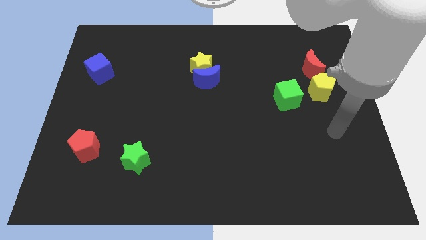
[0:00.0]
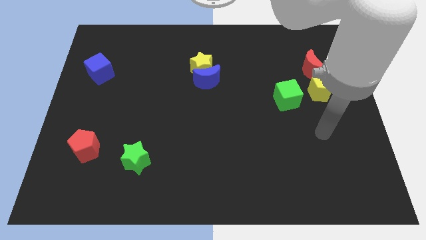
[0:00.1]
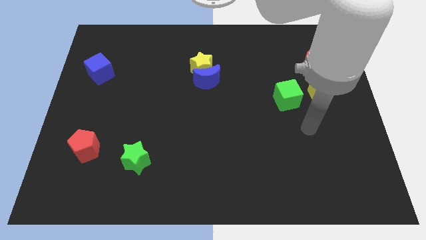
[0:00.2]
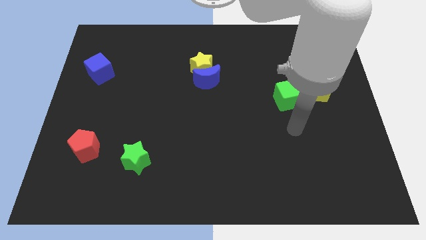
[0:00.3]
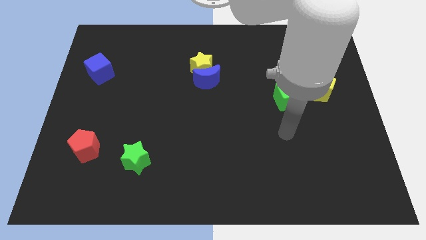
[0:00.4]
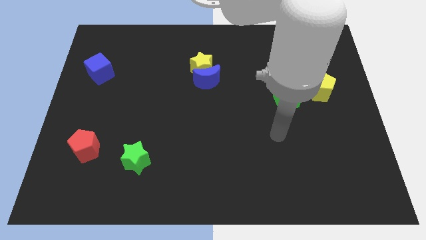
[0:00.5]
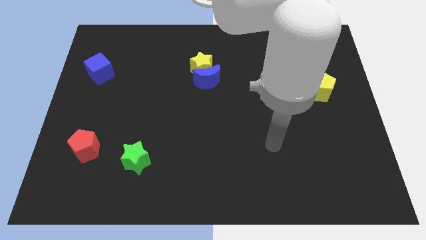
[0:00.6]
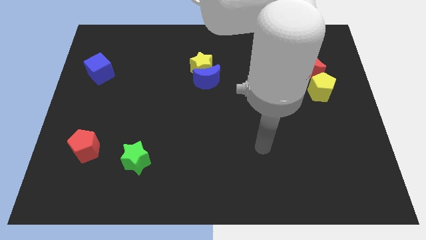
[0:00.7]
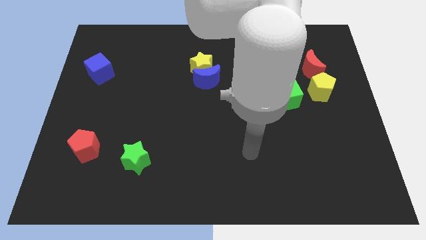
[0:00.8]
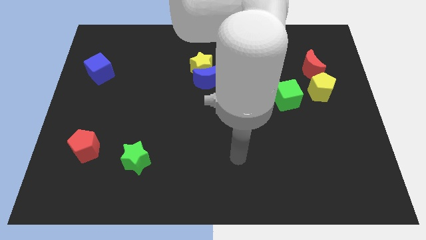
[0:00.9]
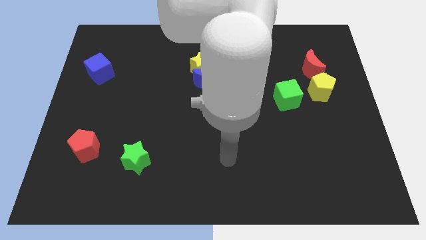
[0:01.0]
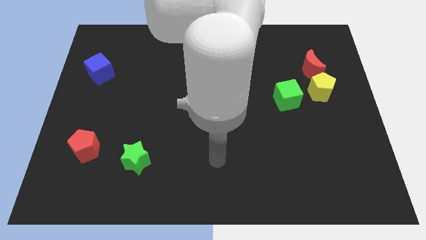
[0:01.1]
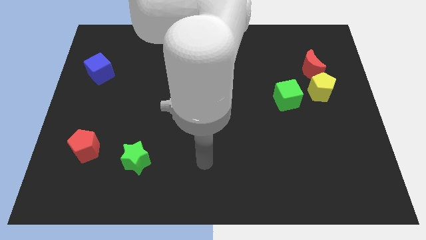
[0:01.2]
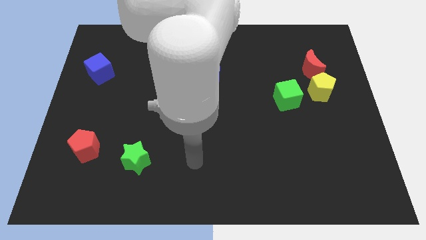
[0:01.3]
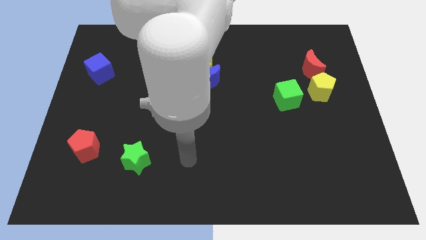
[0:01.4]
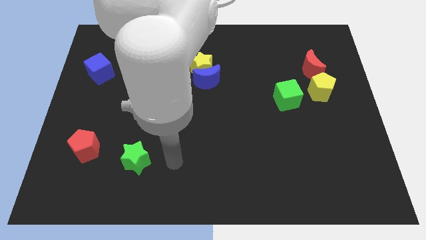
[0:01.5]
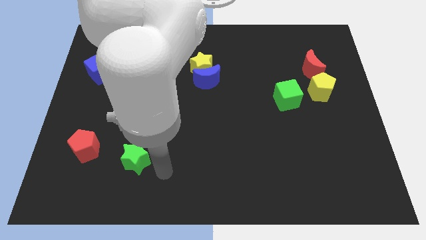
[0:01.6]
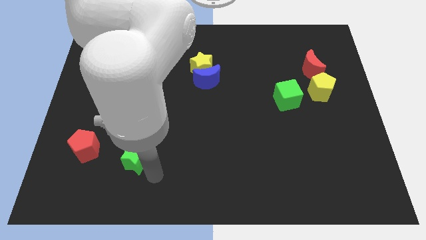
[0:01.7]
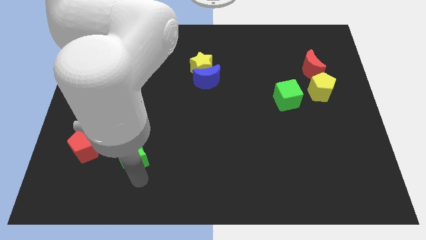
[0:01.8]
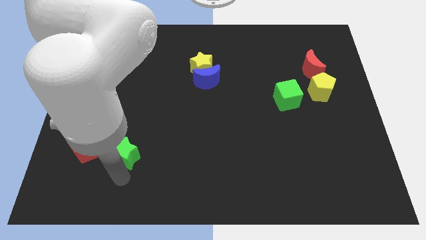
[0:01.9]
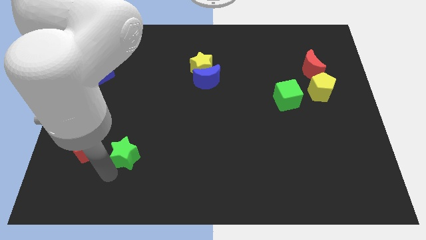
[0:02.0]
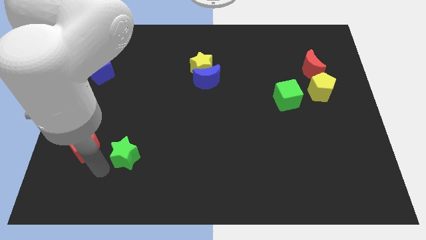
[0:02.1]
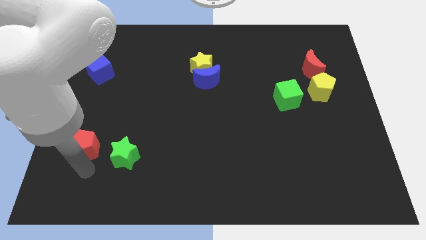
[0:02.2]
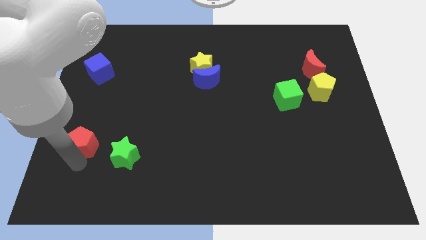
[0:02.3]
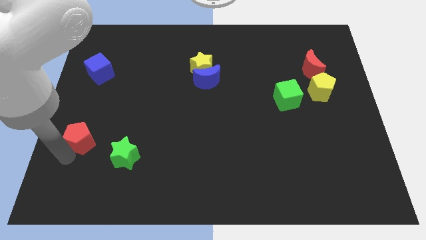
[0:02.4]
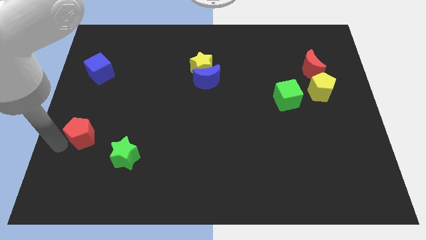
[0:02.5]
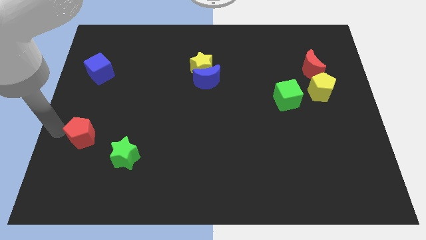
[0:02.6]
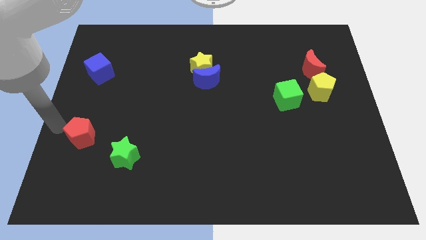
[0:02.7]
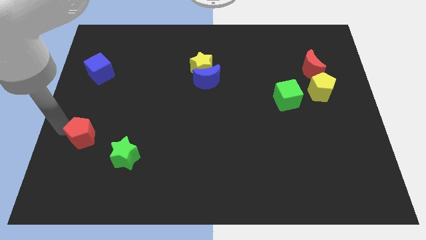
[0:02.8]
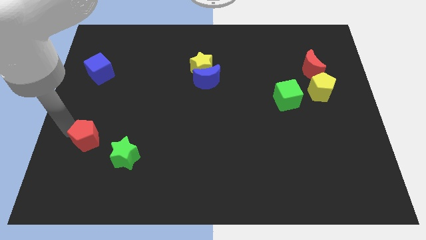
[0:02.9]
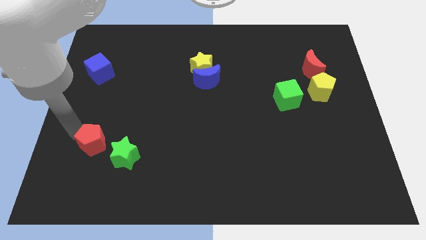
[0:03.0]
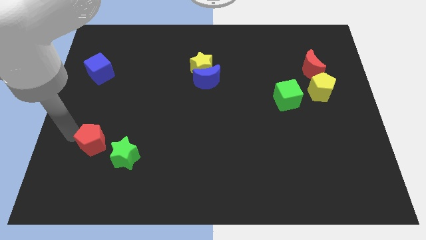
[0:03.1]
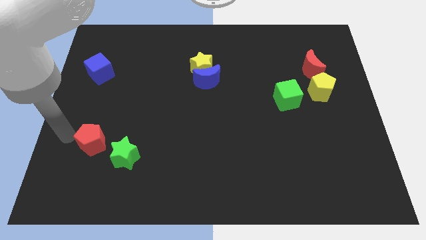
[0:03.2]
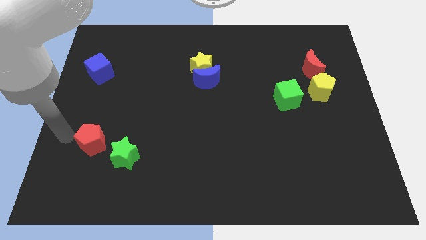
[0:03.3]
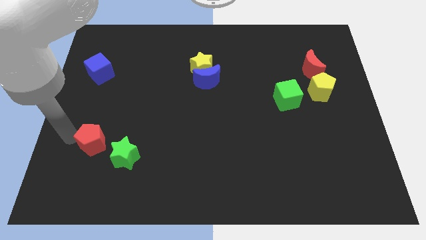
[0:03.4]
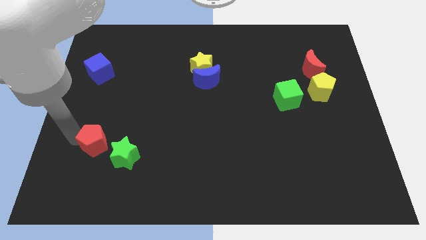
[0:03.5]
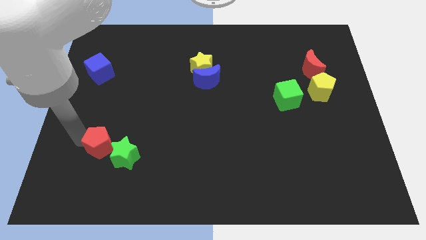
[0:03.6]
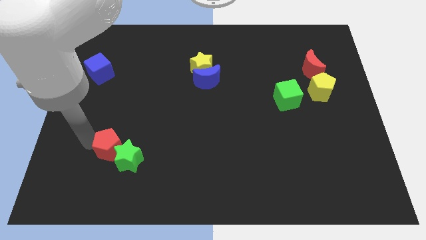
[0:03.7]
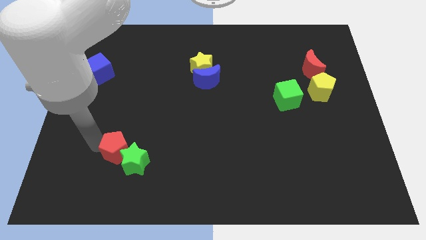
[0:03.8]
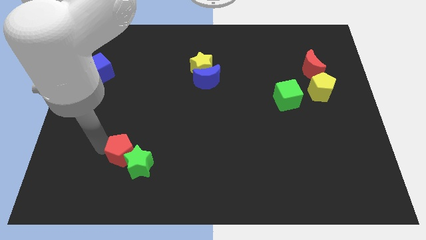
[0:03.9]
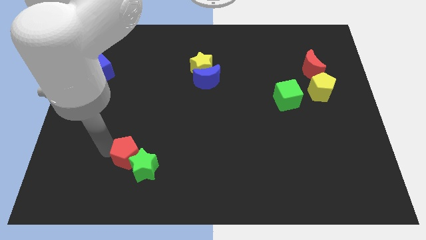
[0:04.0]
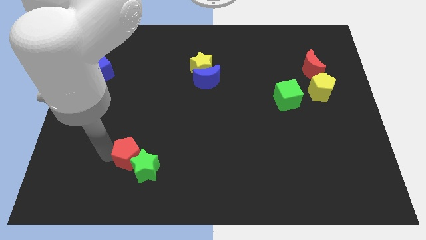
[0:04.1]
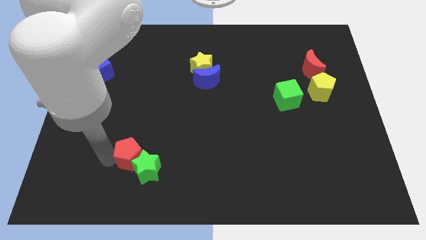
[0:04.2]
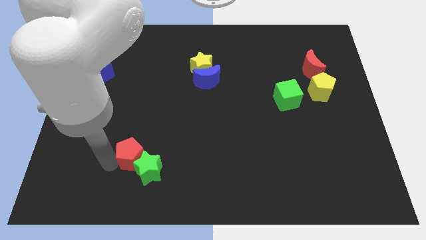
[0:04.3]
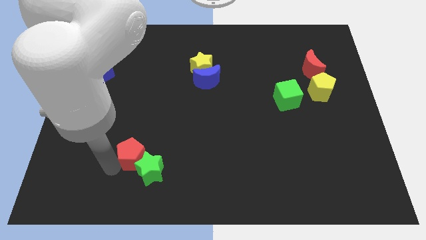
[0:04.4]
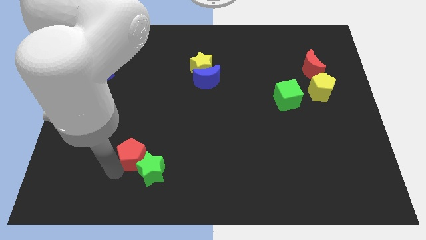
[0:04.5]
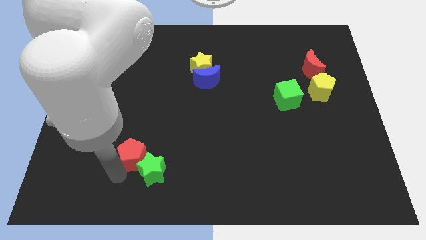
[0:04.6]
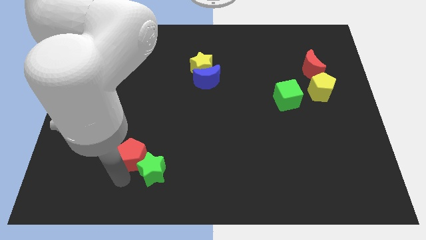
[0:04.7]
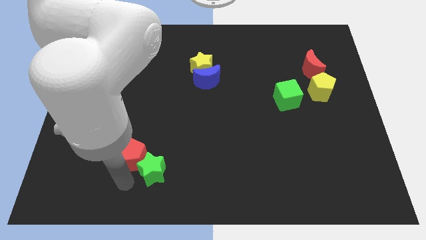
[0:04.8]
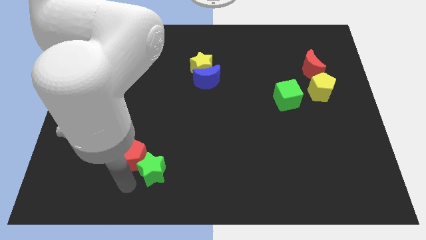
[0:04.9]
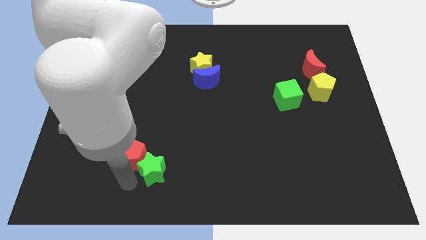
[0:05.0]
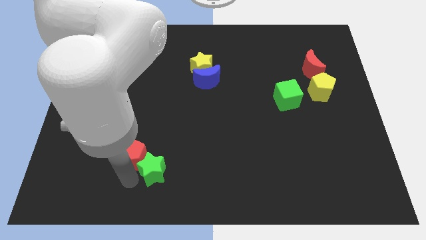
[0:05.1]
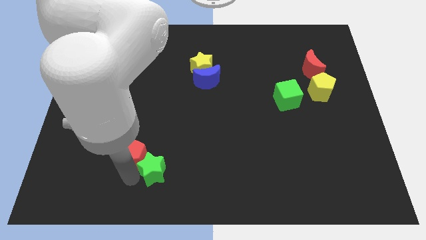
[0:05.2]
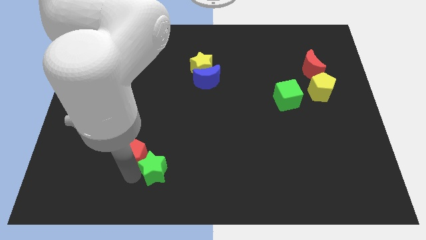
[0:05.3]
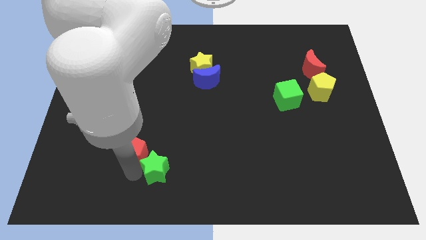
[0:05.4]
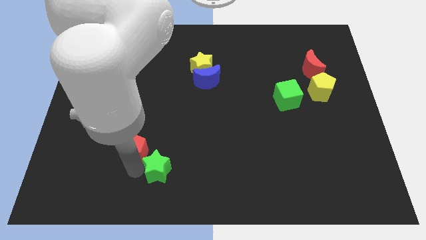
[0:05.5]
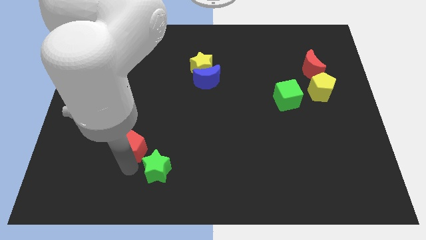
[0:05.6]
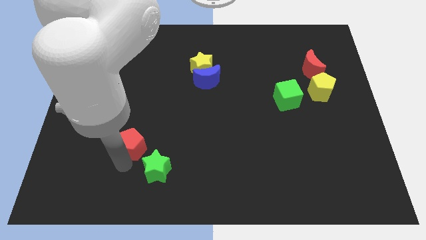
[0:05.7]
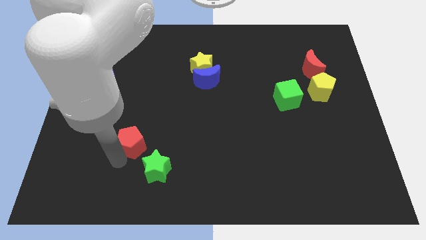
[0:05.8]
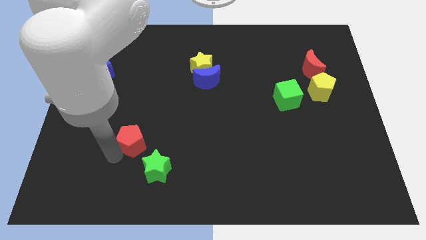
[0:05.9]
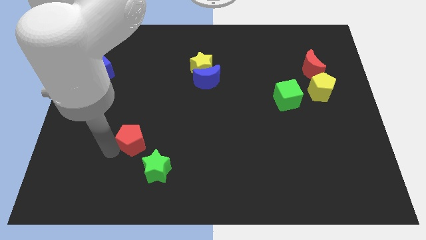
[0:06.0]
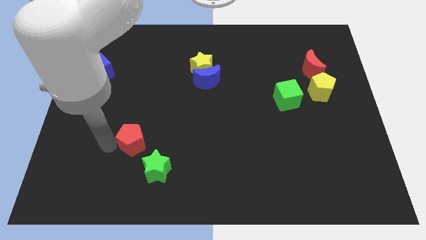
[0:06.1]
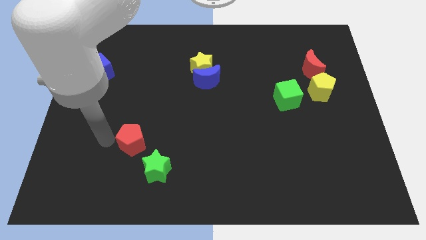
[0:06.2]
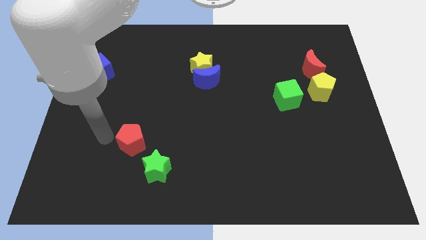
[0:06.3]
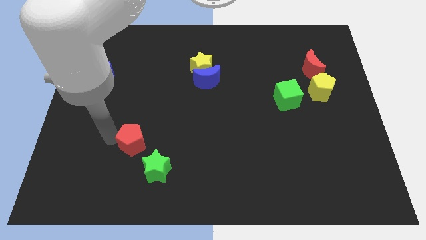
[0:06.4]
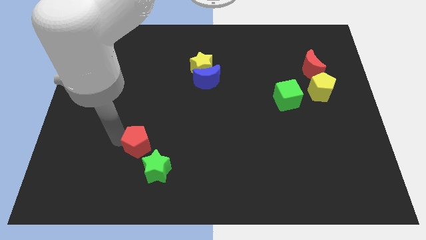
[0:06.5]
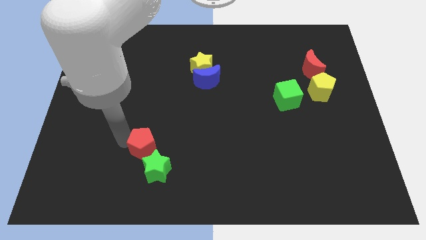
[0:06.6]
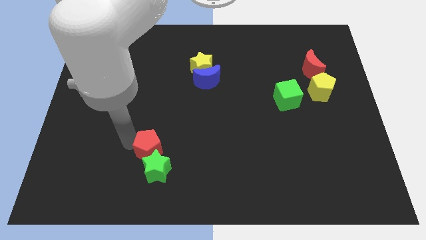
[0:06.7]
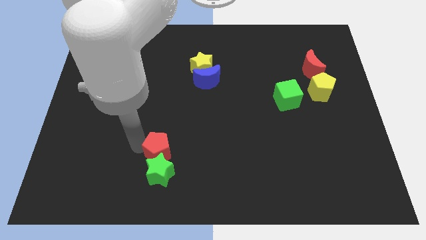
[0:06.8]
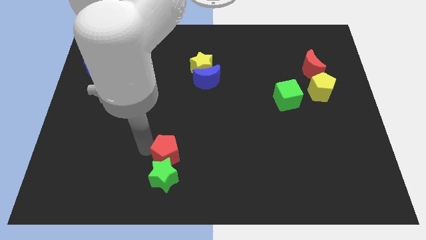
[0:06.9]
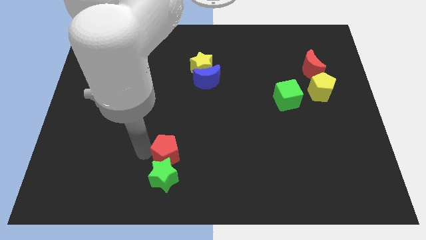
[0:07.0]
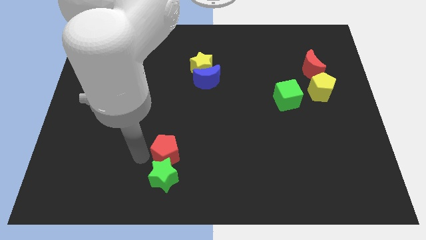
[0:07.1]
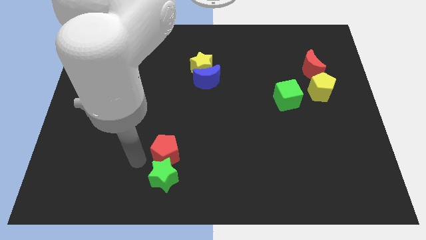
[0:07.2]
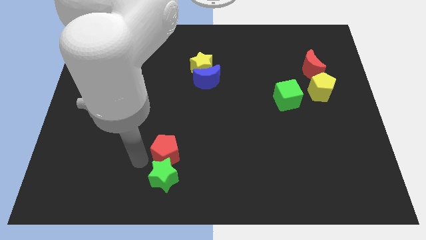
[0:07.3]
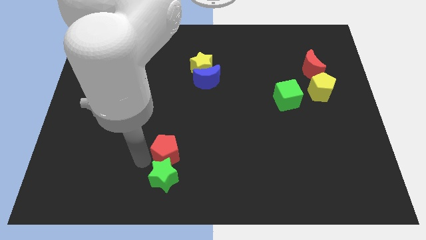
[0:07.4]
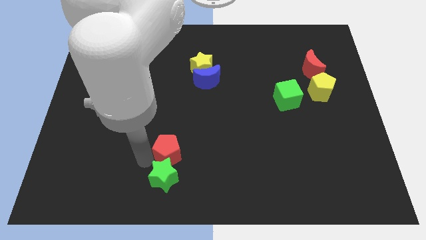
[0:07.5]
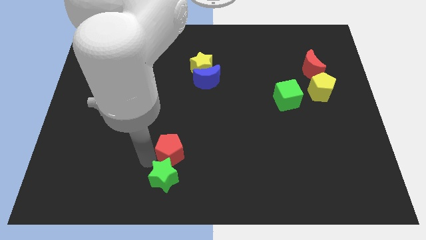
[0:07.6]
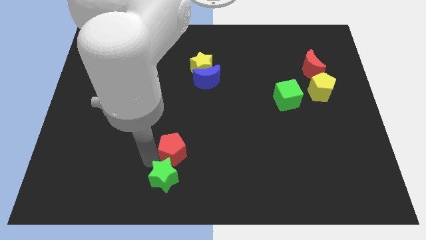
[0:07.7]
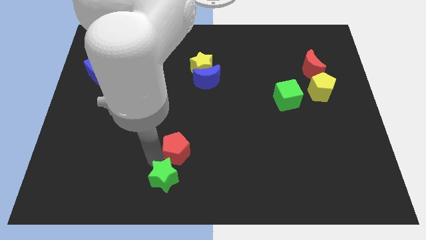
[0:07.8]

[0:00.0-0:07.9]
slide the red pentagon to the right

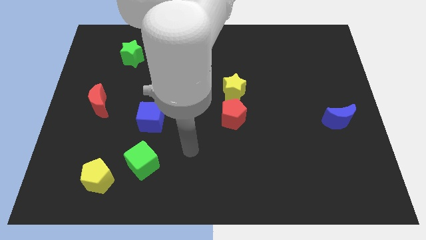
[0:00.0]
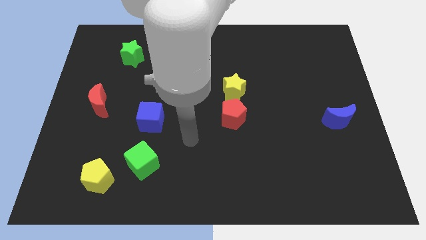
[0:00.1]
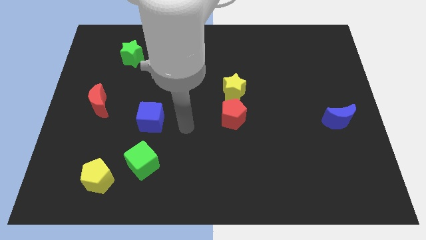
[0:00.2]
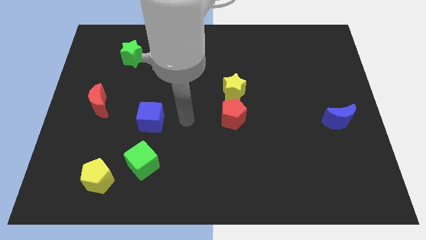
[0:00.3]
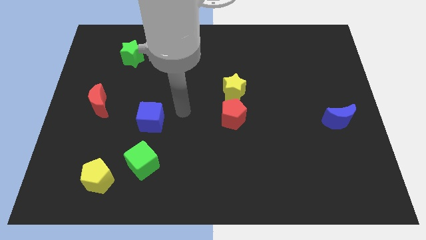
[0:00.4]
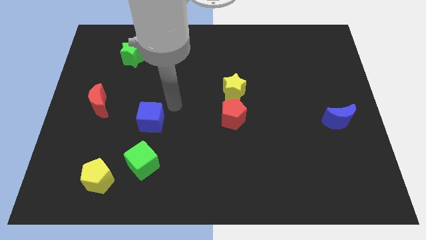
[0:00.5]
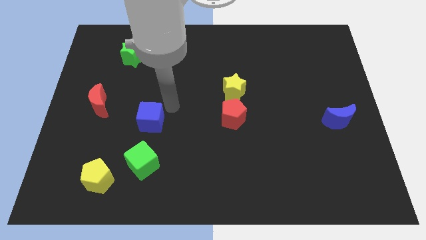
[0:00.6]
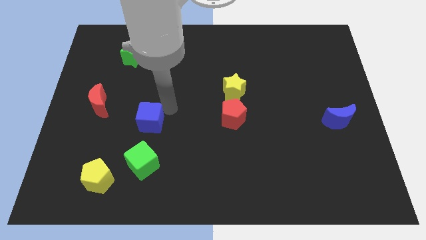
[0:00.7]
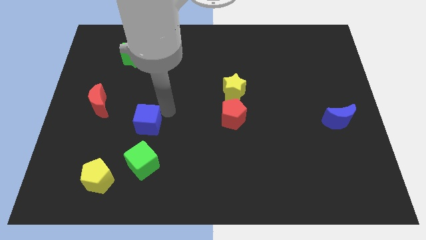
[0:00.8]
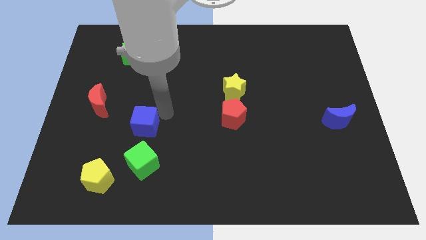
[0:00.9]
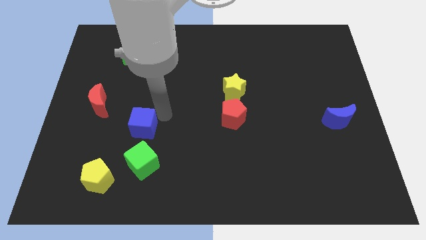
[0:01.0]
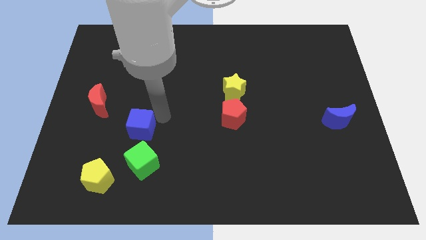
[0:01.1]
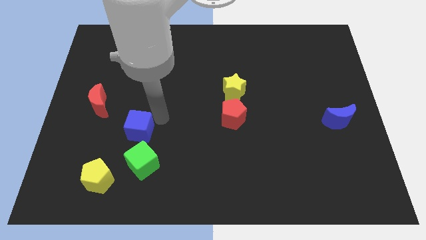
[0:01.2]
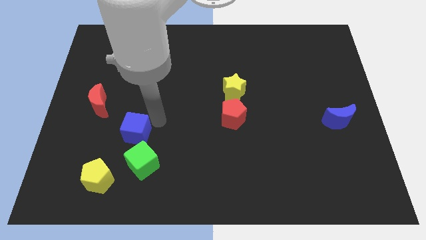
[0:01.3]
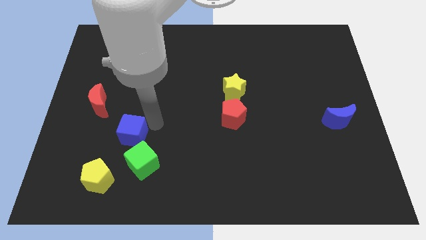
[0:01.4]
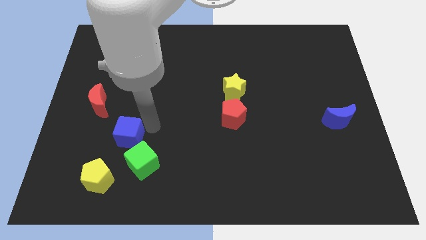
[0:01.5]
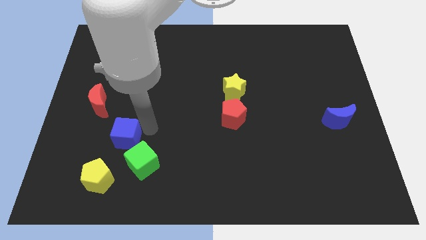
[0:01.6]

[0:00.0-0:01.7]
slide the blue cube a little bit down and to the left diagonally
